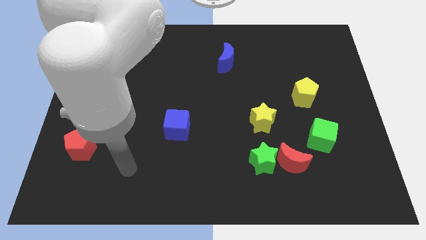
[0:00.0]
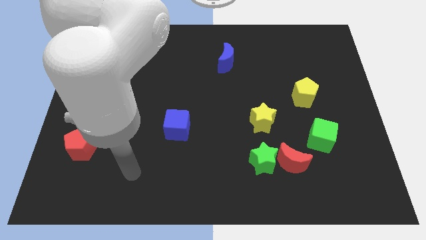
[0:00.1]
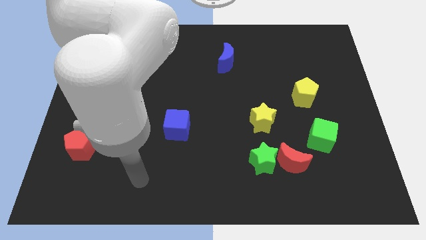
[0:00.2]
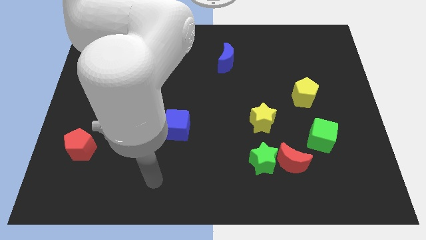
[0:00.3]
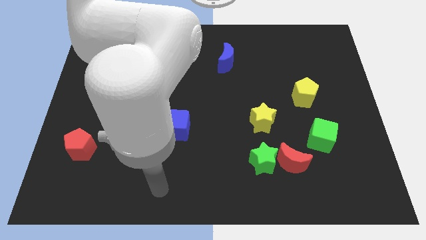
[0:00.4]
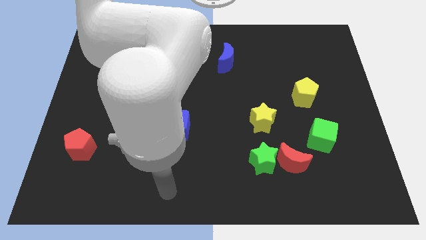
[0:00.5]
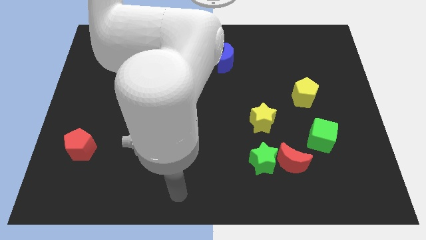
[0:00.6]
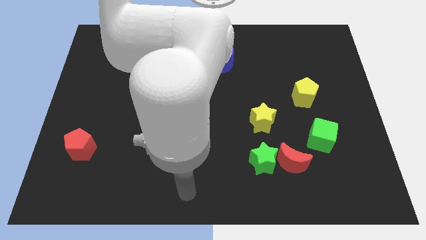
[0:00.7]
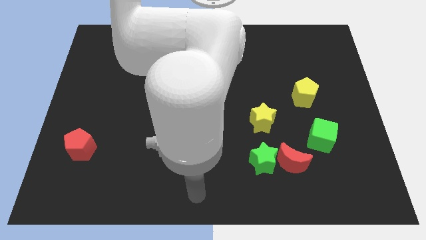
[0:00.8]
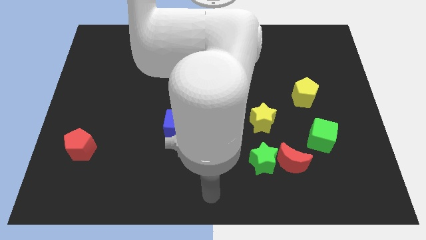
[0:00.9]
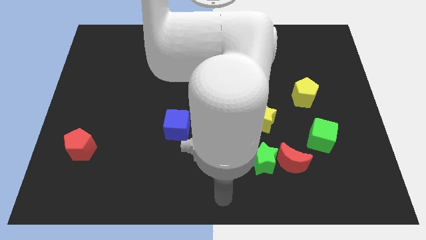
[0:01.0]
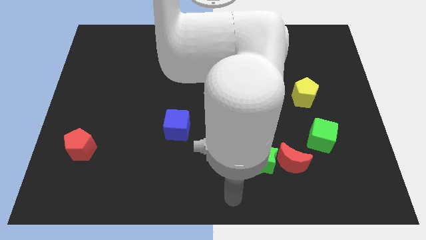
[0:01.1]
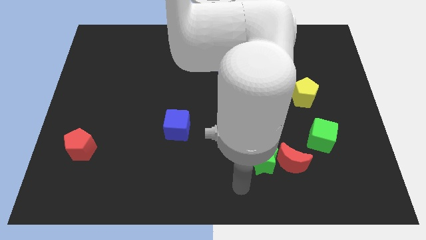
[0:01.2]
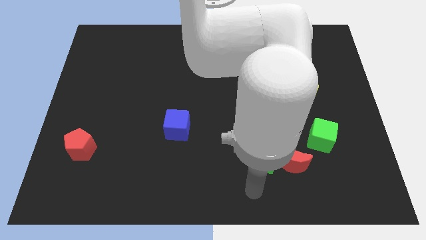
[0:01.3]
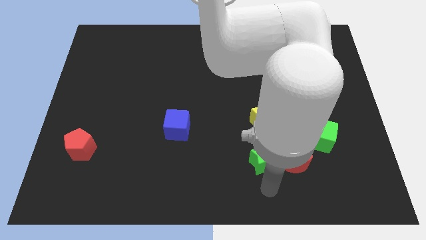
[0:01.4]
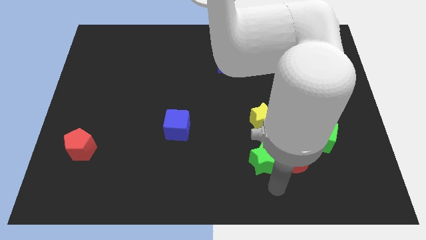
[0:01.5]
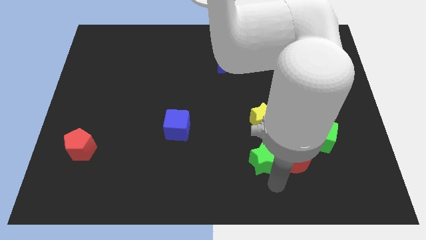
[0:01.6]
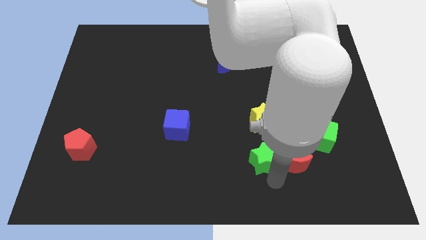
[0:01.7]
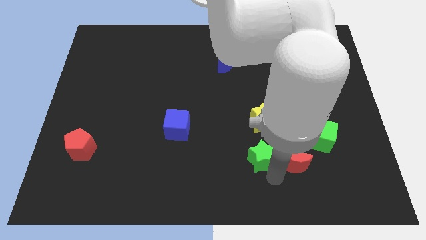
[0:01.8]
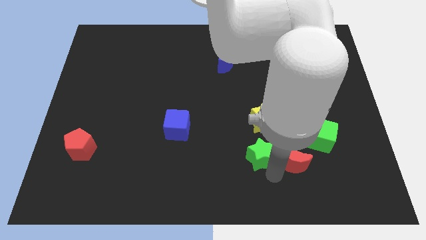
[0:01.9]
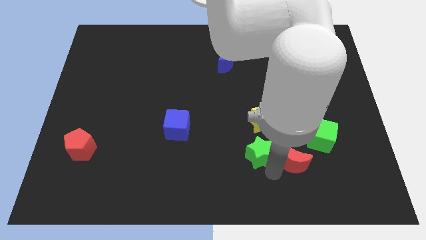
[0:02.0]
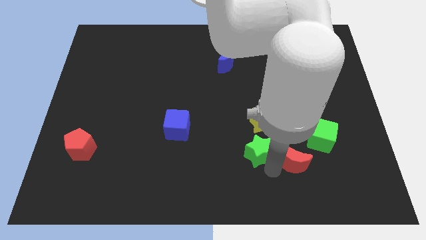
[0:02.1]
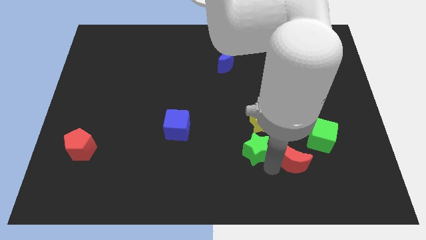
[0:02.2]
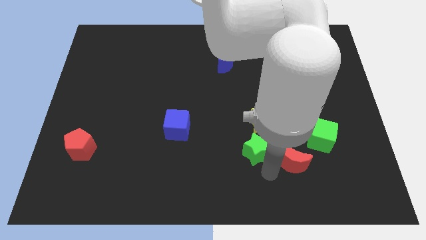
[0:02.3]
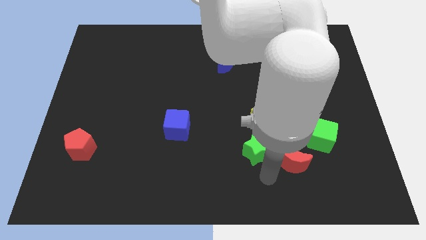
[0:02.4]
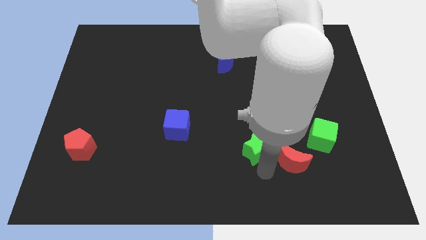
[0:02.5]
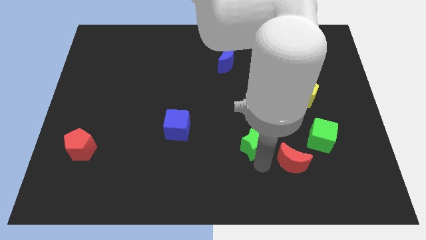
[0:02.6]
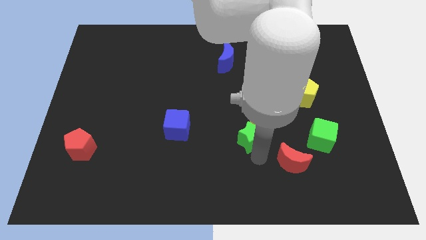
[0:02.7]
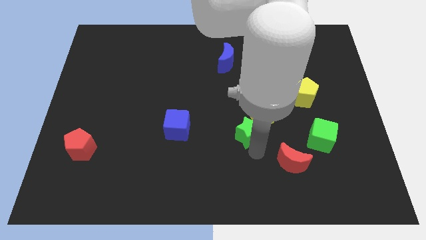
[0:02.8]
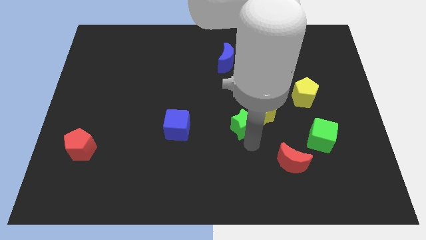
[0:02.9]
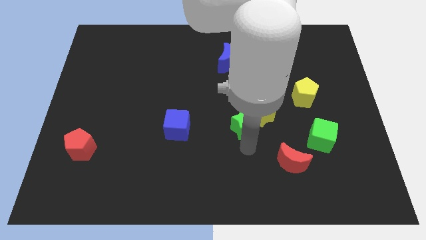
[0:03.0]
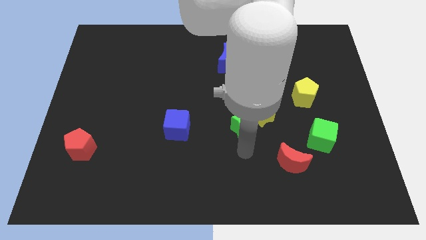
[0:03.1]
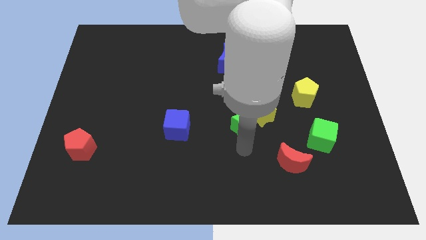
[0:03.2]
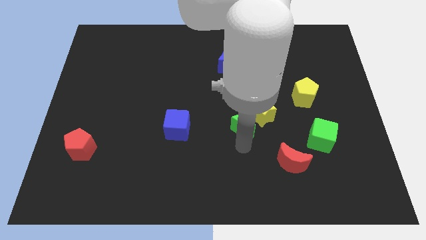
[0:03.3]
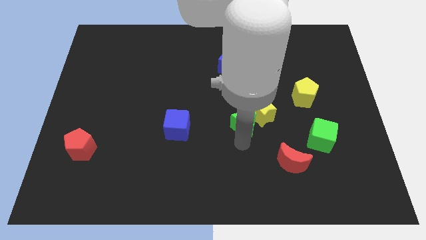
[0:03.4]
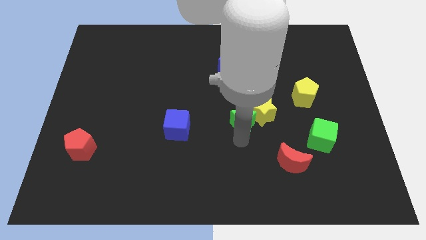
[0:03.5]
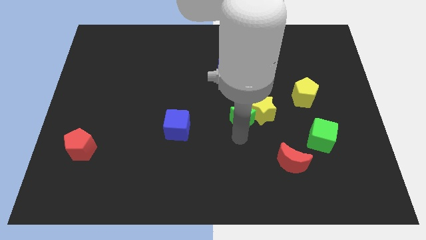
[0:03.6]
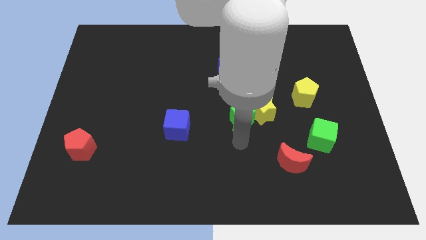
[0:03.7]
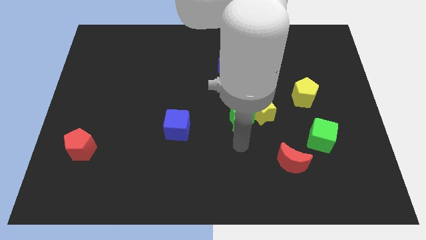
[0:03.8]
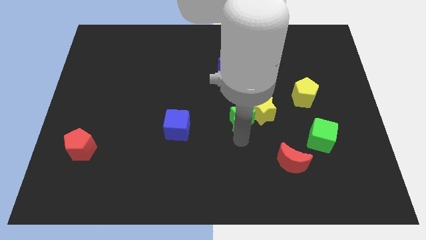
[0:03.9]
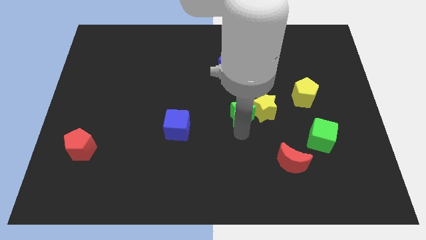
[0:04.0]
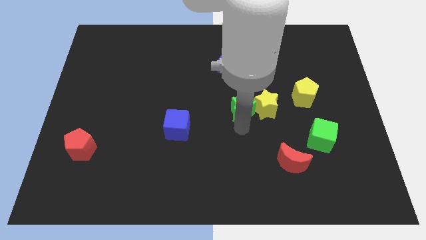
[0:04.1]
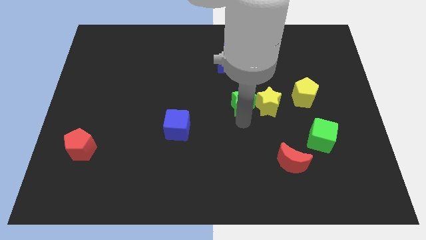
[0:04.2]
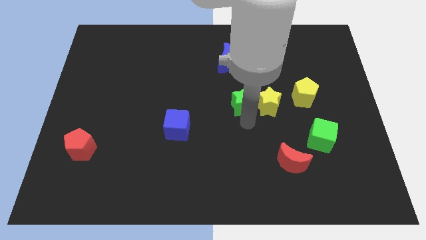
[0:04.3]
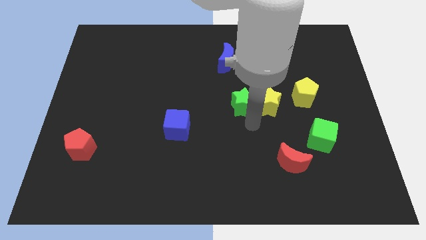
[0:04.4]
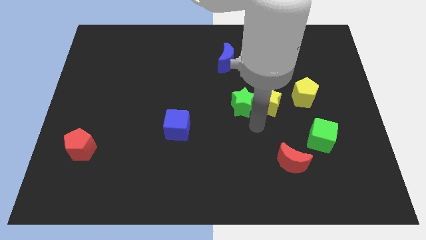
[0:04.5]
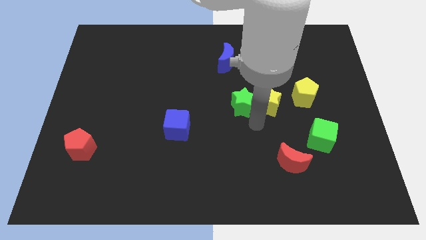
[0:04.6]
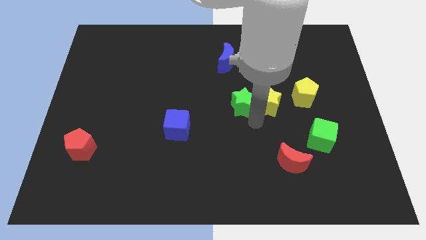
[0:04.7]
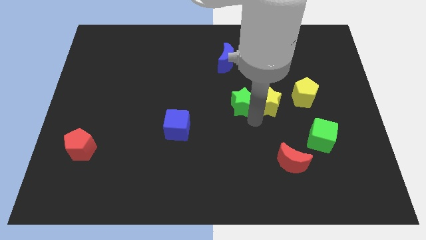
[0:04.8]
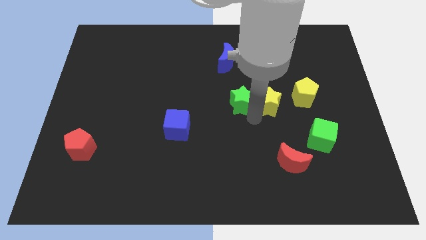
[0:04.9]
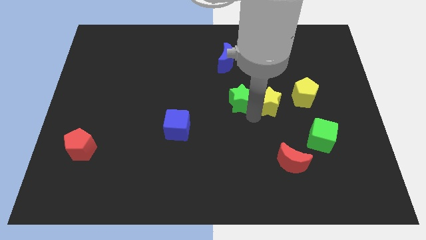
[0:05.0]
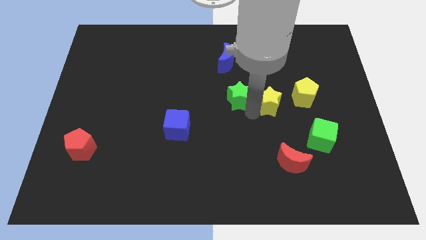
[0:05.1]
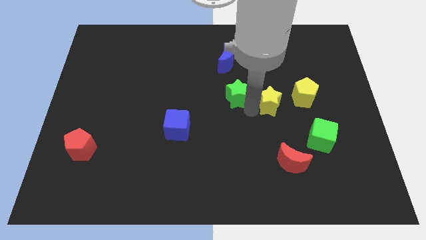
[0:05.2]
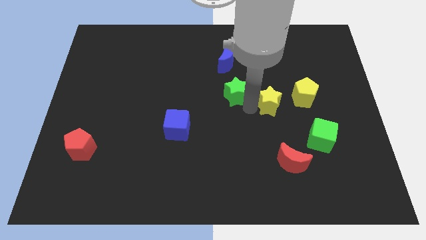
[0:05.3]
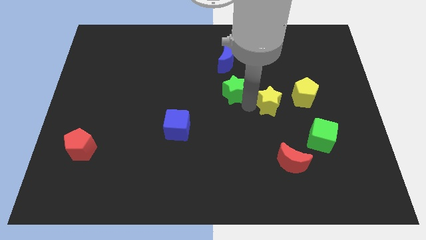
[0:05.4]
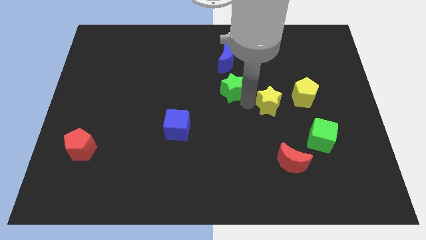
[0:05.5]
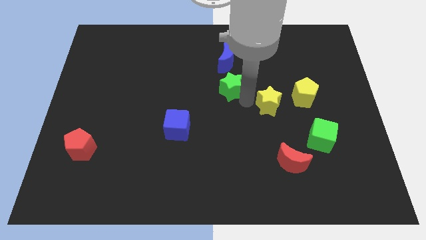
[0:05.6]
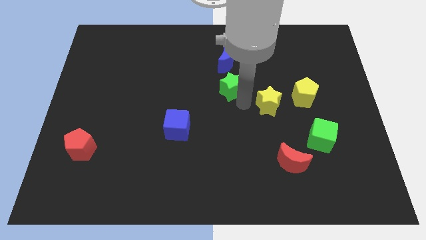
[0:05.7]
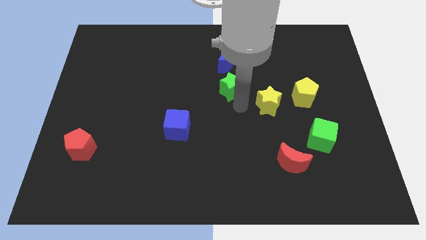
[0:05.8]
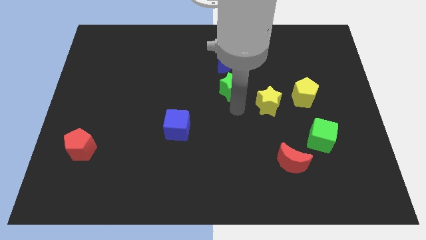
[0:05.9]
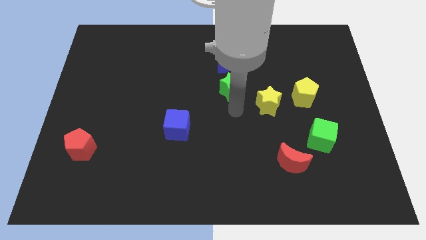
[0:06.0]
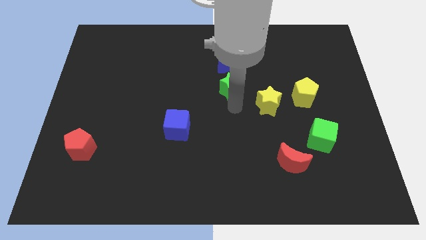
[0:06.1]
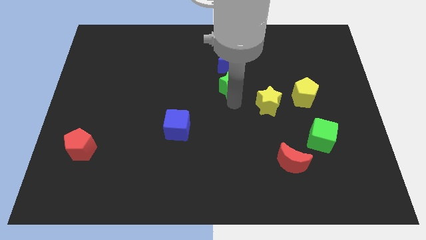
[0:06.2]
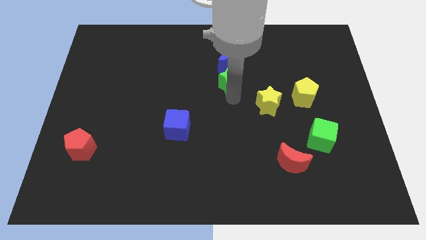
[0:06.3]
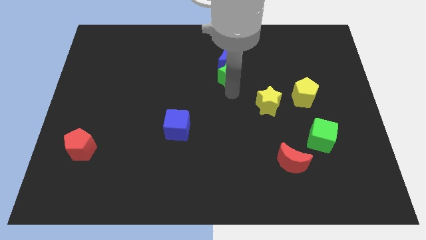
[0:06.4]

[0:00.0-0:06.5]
put the green star next to the blue moon
